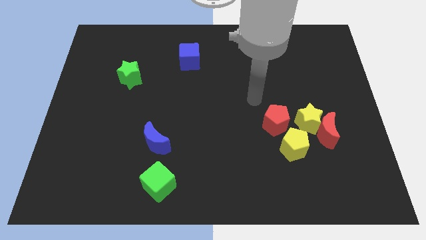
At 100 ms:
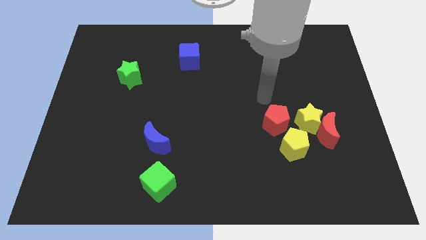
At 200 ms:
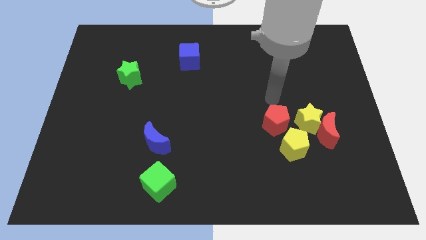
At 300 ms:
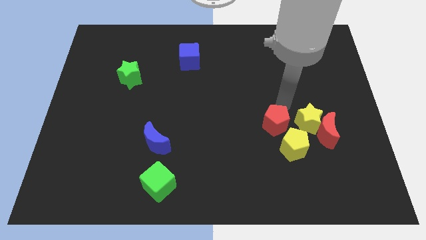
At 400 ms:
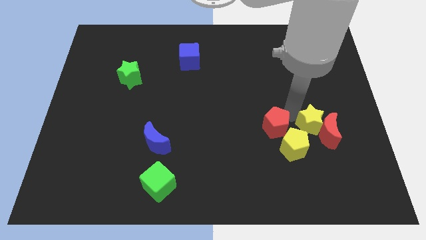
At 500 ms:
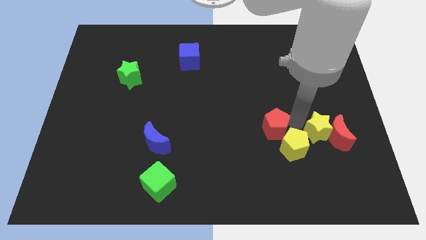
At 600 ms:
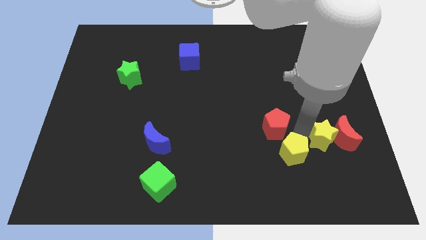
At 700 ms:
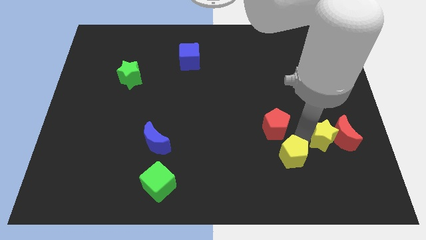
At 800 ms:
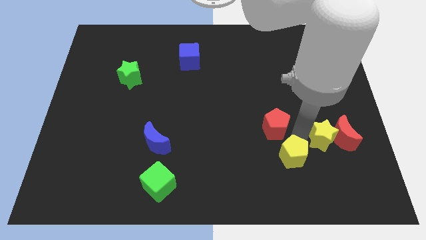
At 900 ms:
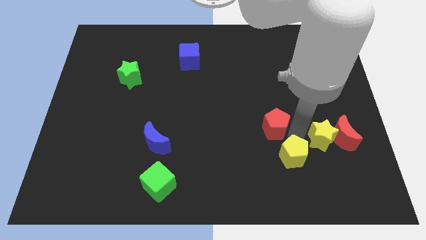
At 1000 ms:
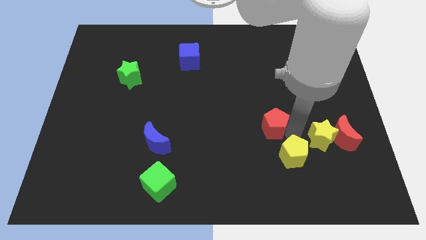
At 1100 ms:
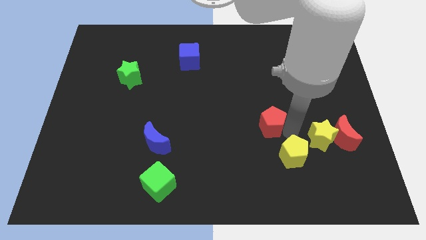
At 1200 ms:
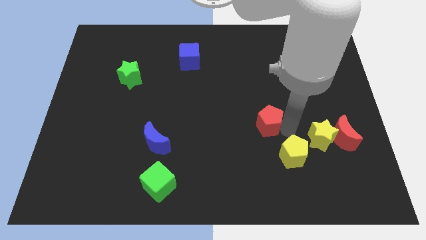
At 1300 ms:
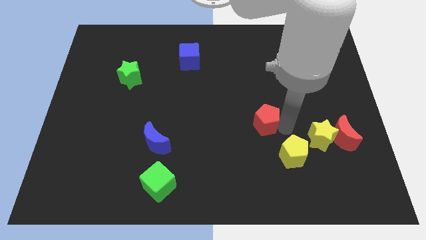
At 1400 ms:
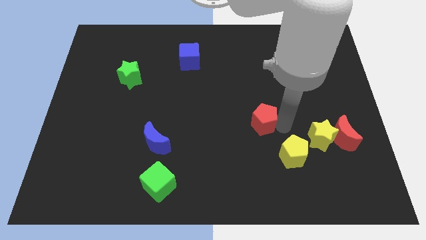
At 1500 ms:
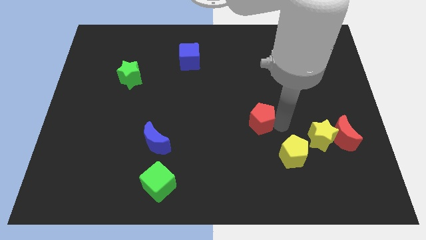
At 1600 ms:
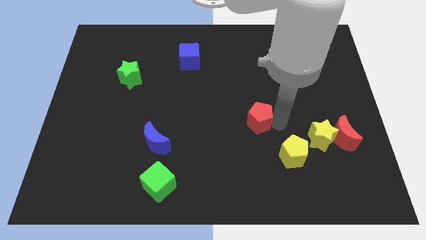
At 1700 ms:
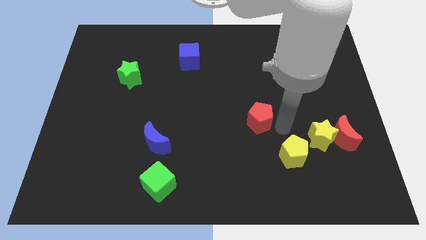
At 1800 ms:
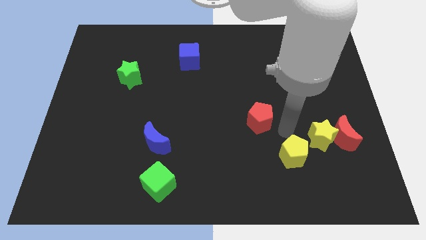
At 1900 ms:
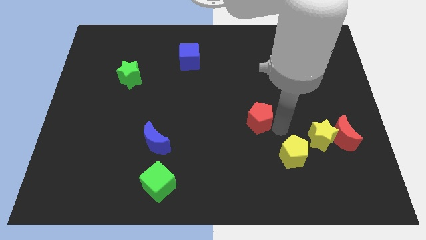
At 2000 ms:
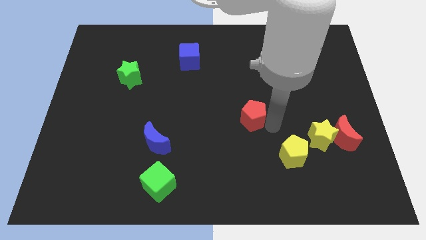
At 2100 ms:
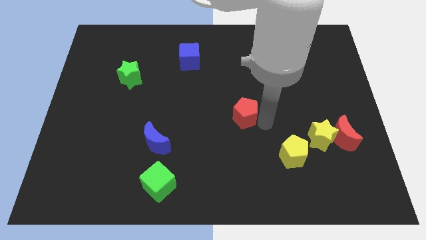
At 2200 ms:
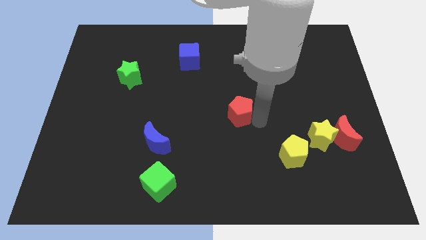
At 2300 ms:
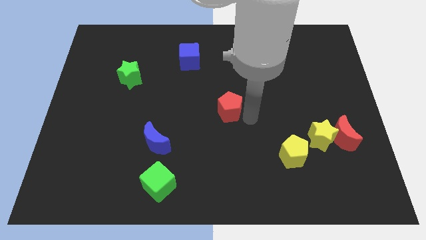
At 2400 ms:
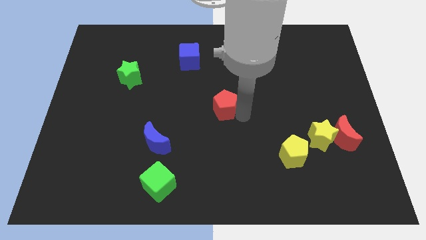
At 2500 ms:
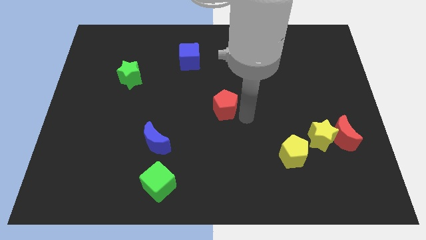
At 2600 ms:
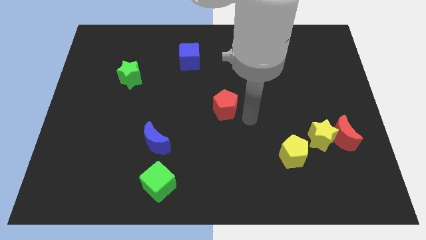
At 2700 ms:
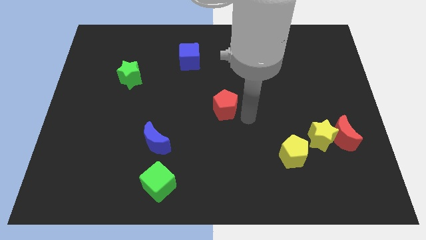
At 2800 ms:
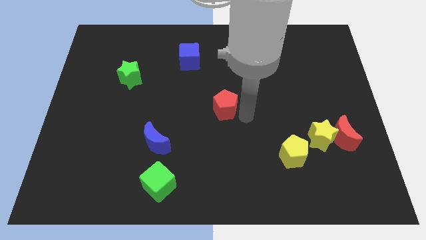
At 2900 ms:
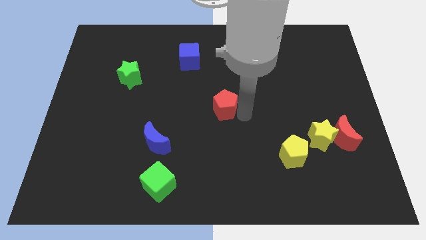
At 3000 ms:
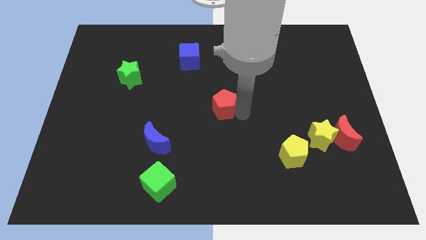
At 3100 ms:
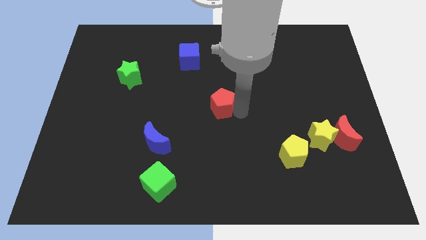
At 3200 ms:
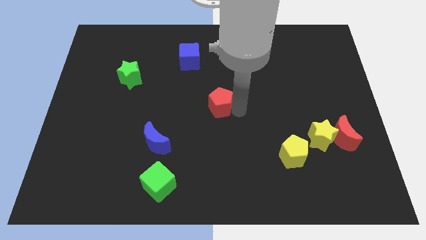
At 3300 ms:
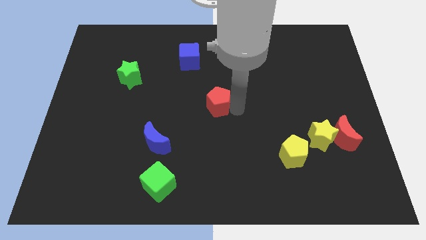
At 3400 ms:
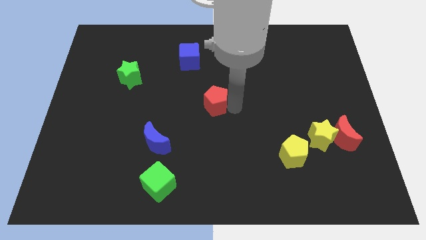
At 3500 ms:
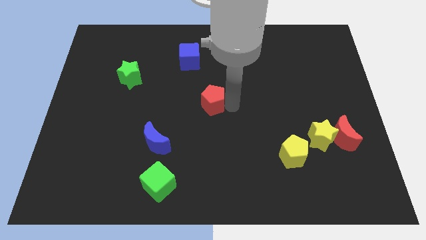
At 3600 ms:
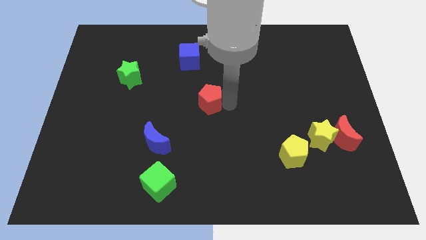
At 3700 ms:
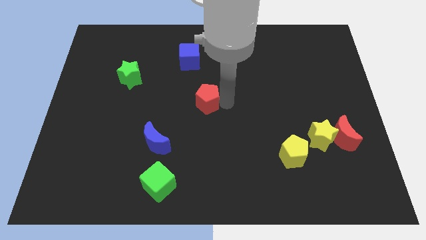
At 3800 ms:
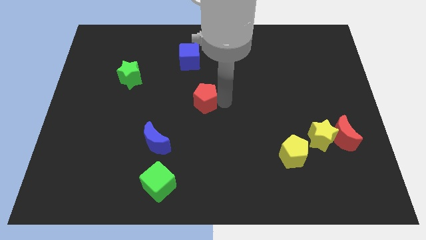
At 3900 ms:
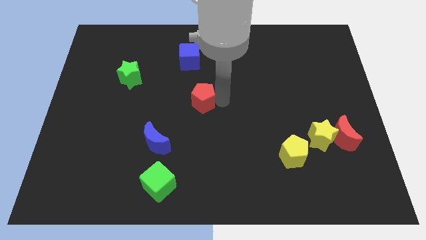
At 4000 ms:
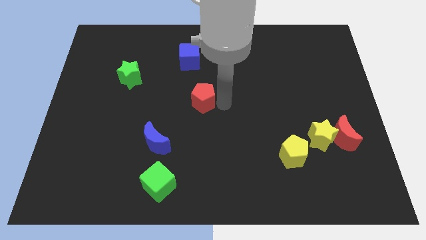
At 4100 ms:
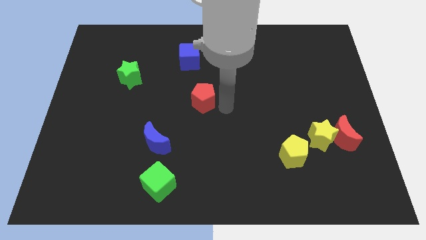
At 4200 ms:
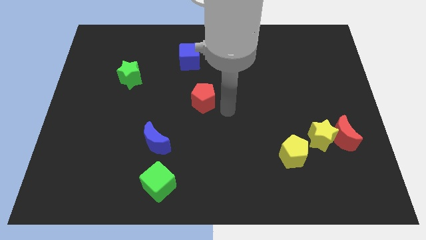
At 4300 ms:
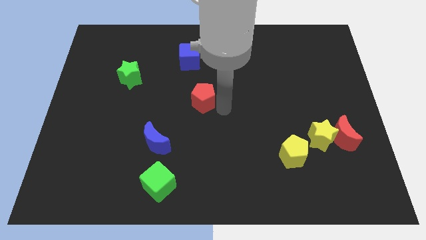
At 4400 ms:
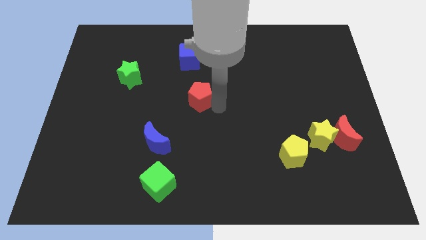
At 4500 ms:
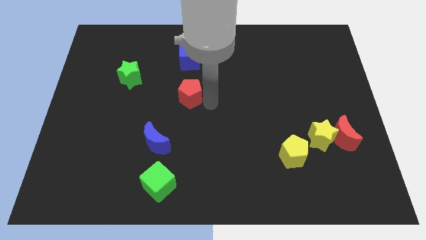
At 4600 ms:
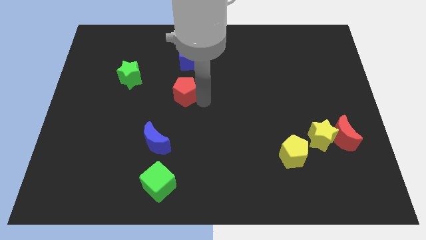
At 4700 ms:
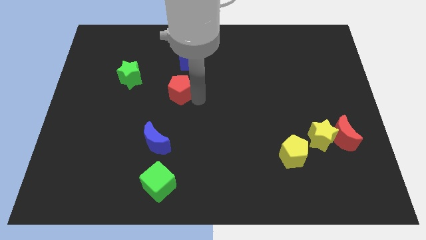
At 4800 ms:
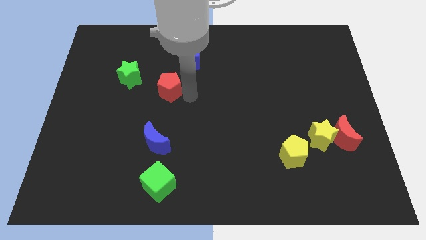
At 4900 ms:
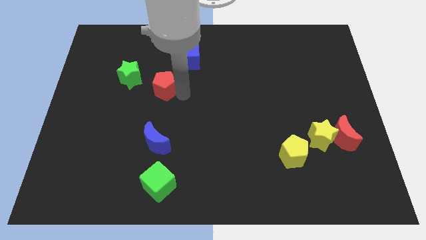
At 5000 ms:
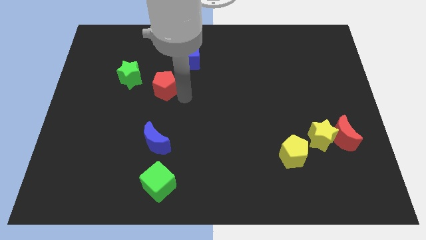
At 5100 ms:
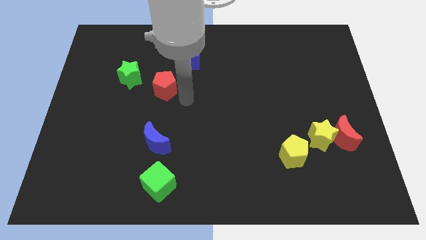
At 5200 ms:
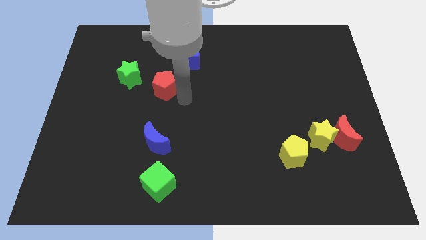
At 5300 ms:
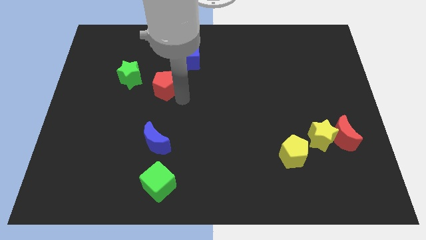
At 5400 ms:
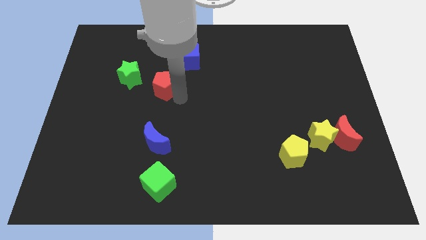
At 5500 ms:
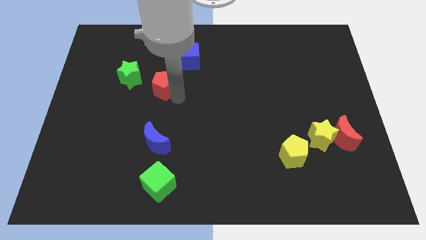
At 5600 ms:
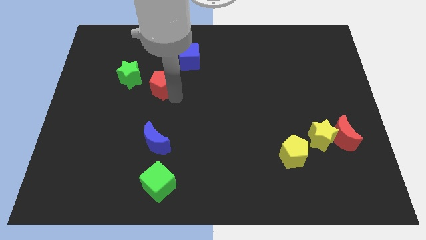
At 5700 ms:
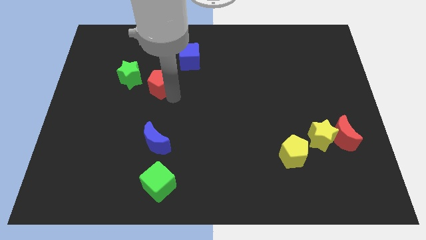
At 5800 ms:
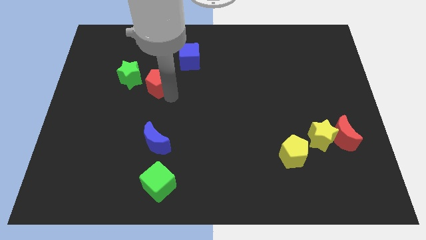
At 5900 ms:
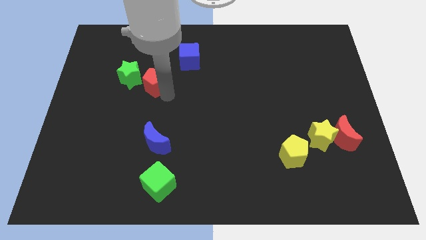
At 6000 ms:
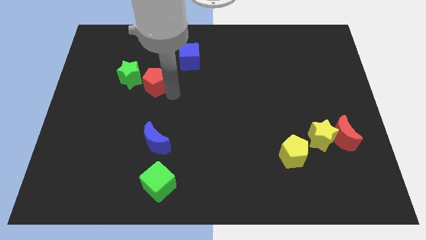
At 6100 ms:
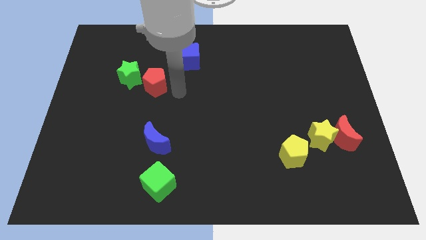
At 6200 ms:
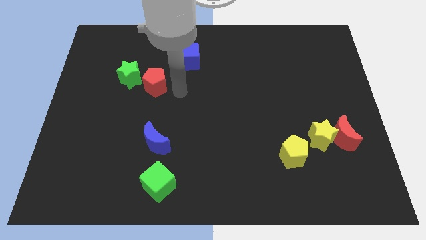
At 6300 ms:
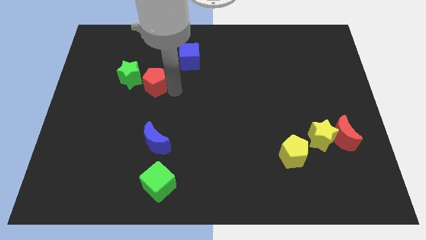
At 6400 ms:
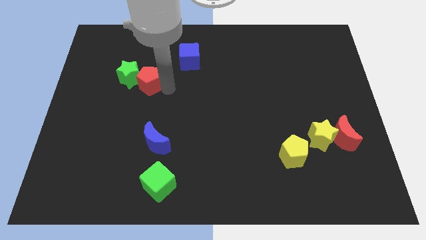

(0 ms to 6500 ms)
push the red pentagon next to the green star

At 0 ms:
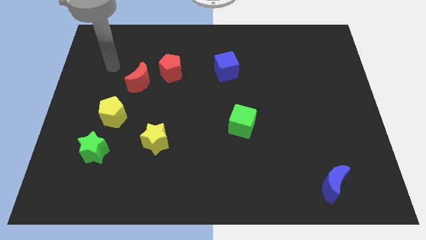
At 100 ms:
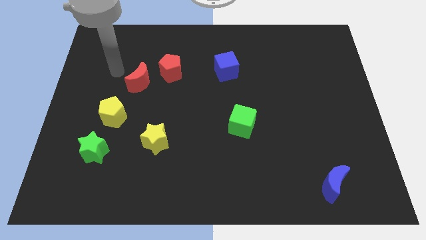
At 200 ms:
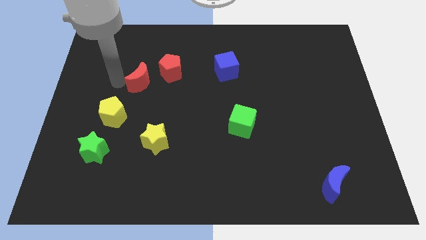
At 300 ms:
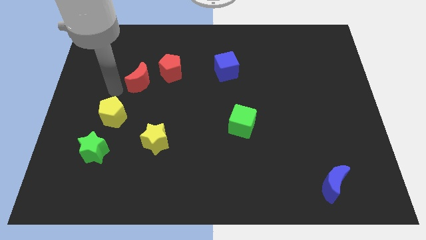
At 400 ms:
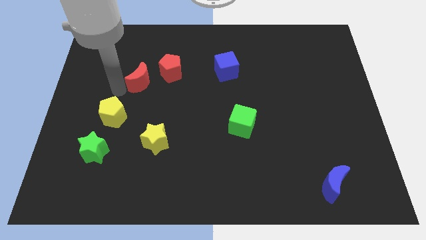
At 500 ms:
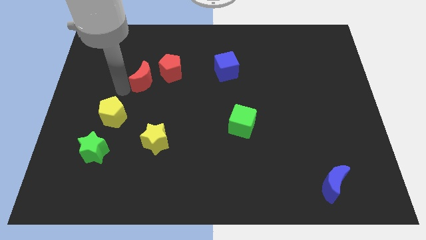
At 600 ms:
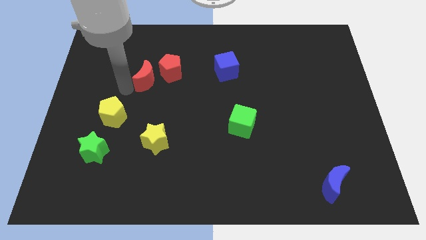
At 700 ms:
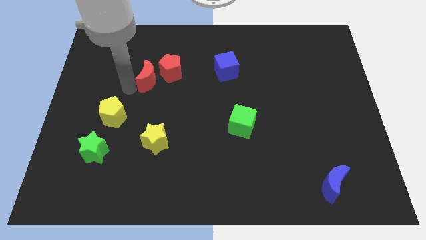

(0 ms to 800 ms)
move the red moon close to the red pentagon
